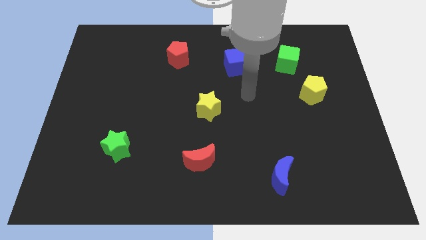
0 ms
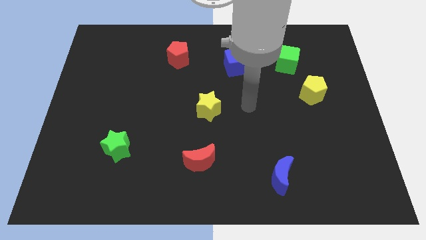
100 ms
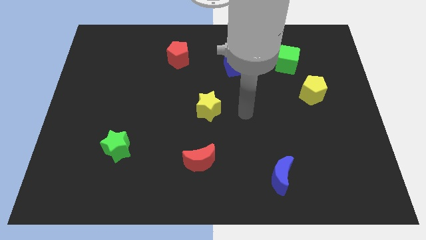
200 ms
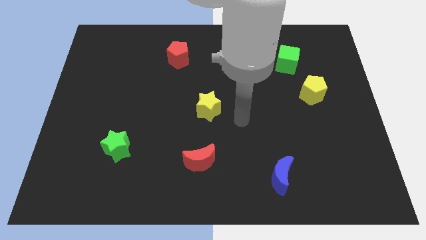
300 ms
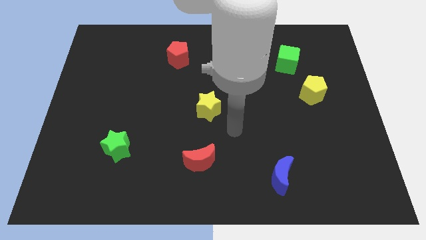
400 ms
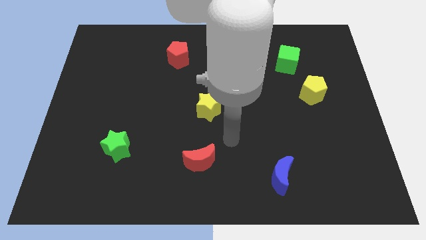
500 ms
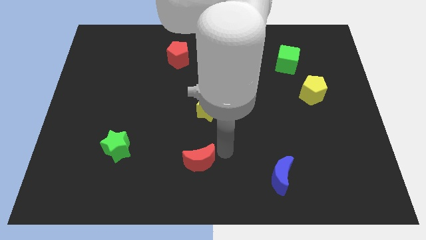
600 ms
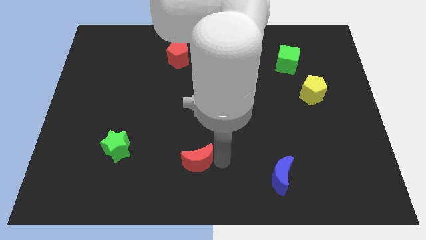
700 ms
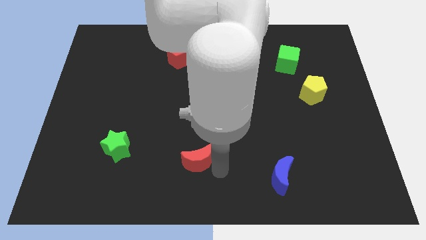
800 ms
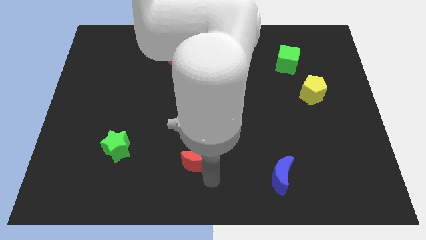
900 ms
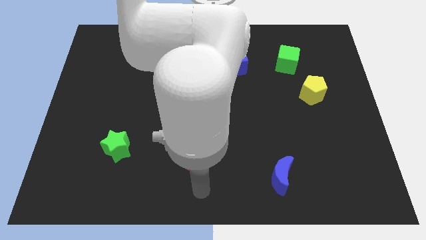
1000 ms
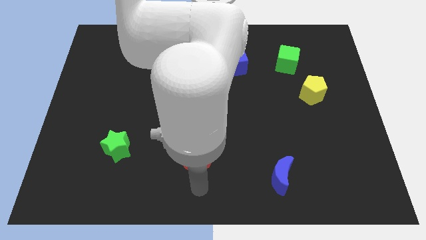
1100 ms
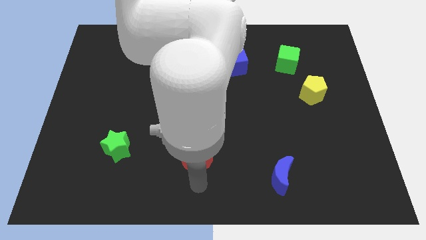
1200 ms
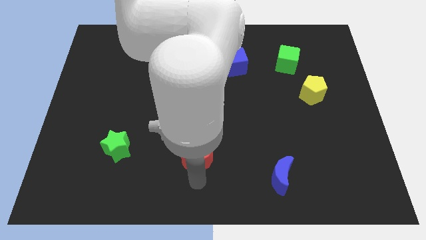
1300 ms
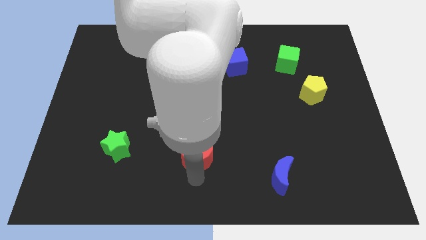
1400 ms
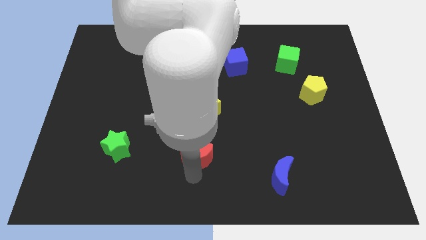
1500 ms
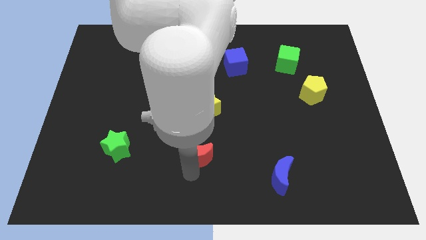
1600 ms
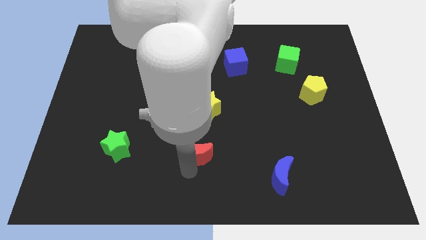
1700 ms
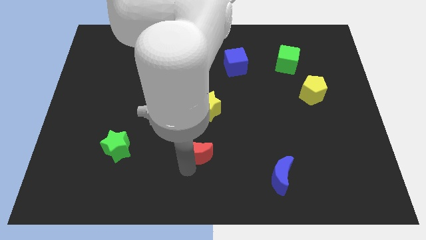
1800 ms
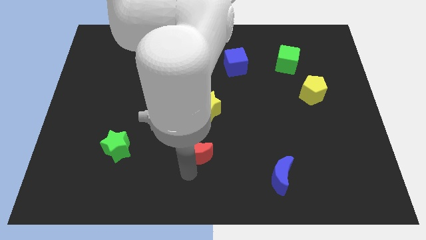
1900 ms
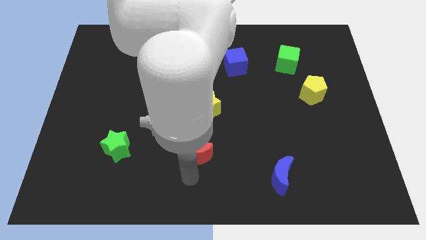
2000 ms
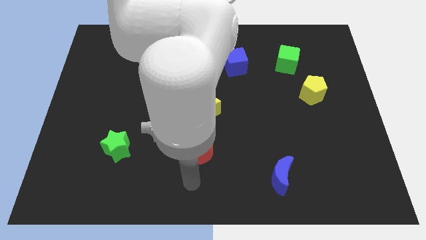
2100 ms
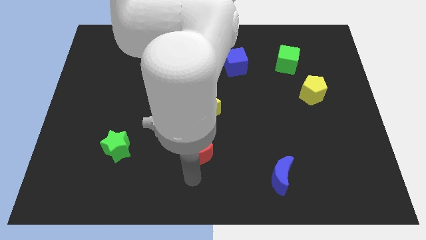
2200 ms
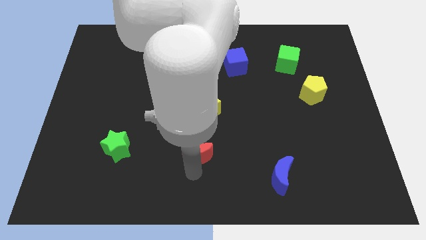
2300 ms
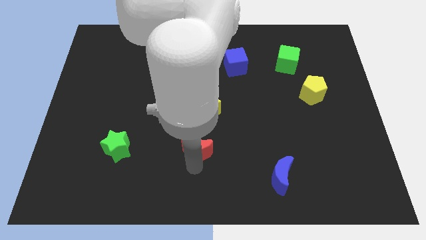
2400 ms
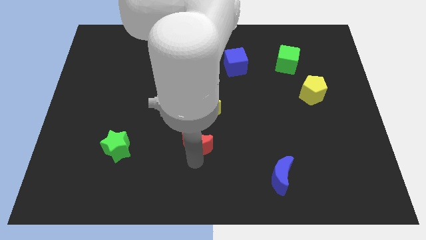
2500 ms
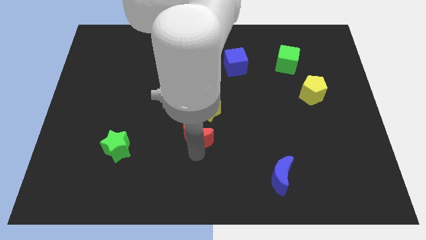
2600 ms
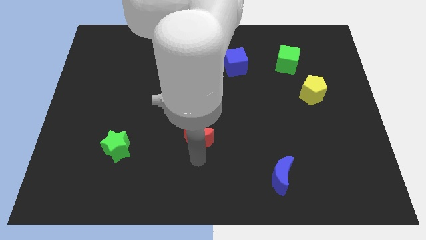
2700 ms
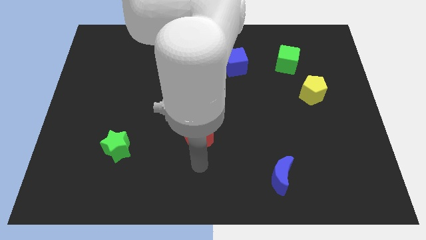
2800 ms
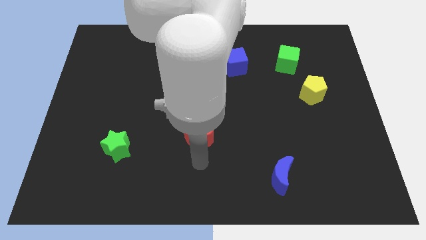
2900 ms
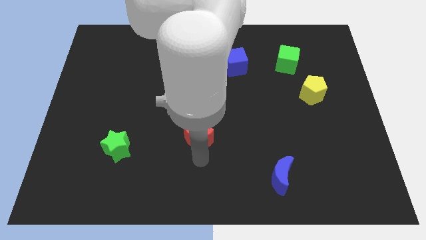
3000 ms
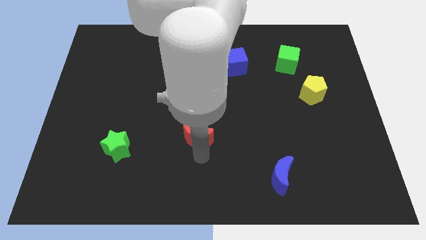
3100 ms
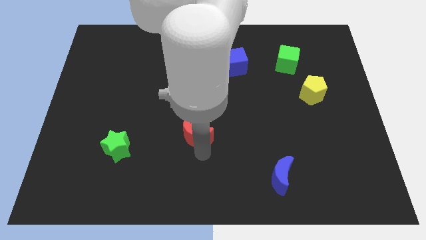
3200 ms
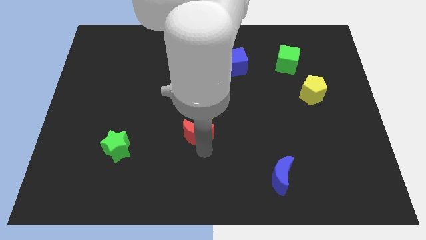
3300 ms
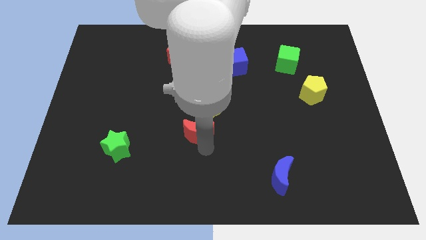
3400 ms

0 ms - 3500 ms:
slightly slide the red moon upwards

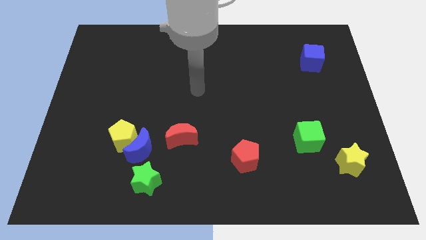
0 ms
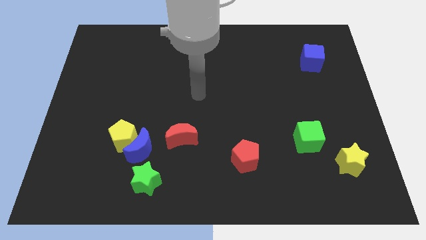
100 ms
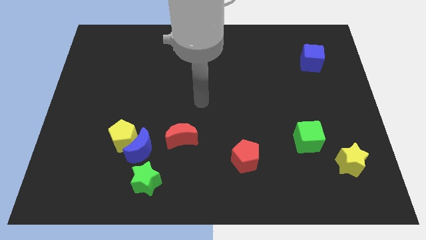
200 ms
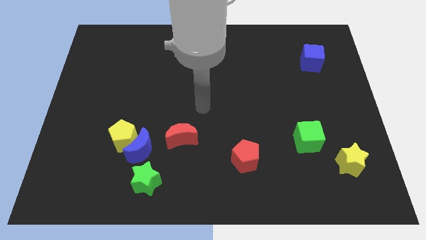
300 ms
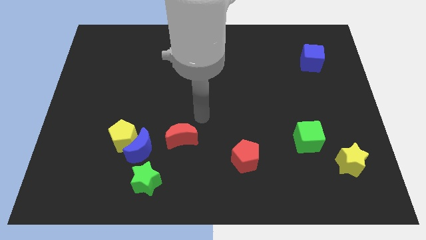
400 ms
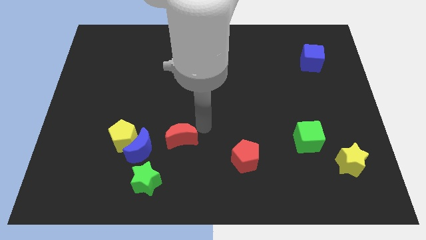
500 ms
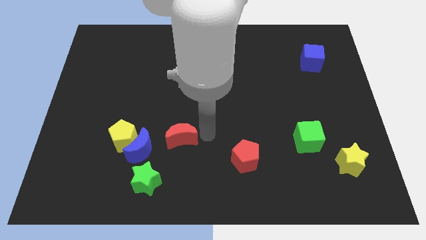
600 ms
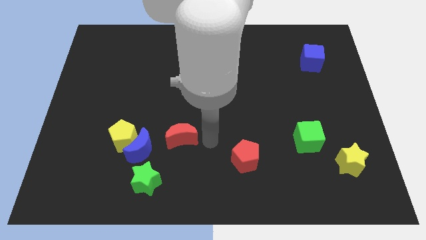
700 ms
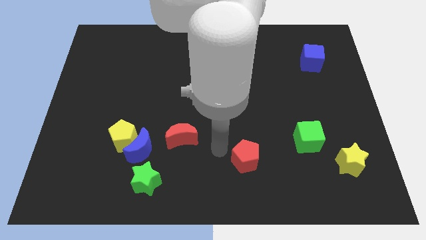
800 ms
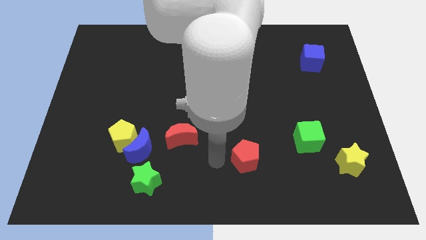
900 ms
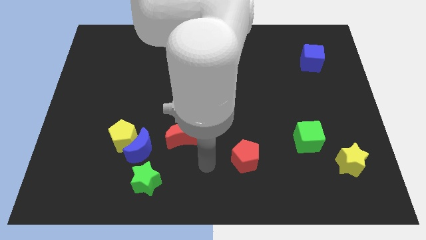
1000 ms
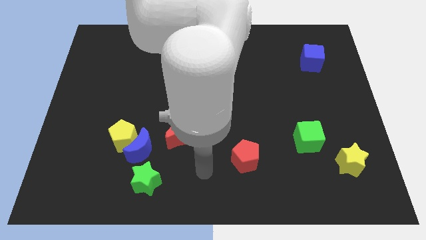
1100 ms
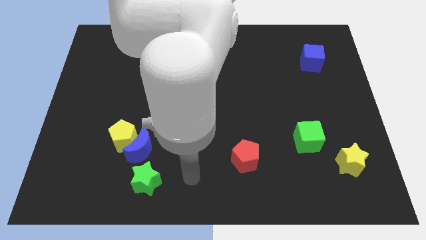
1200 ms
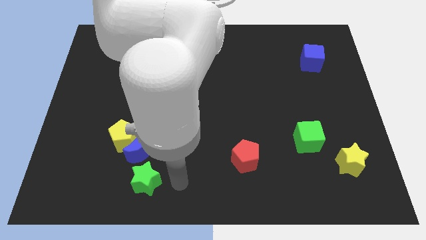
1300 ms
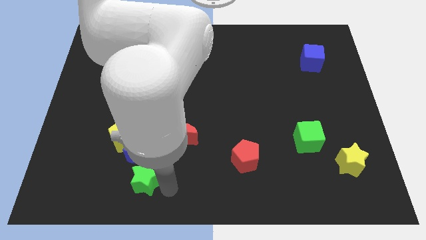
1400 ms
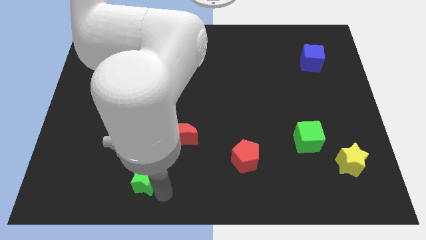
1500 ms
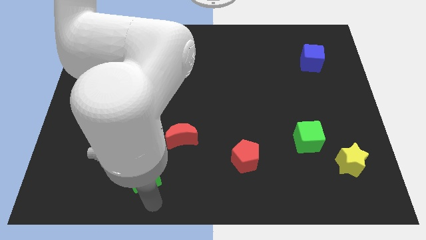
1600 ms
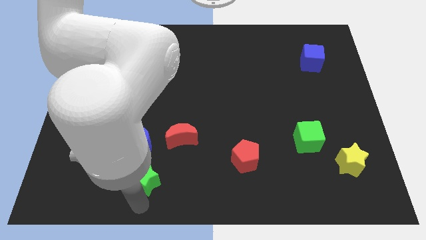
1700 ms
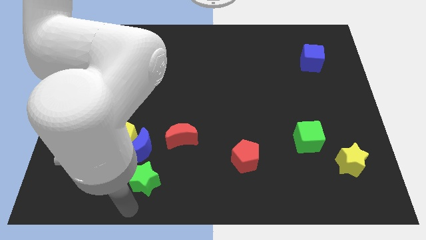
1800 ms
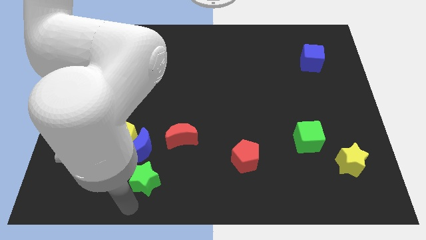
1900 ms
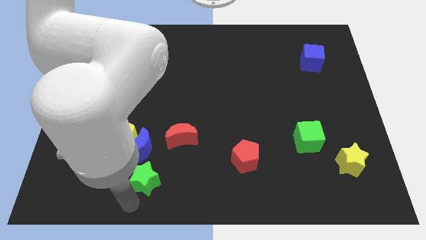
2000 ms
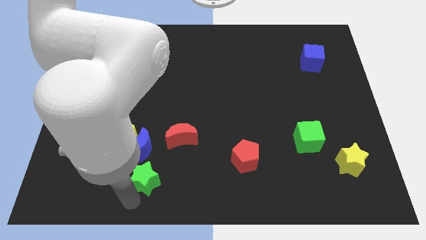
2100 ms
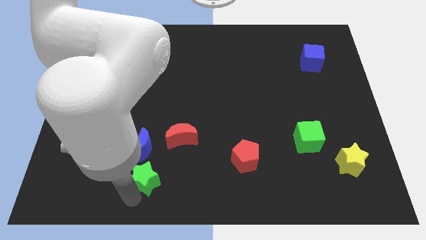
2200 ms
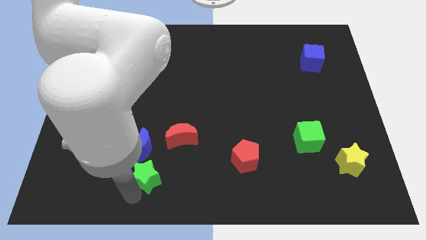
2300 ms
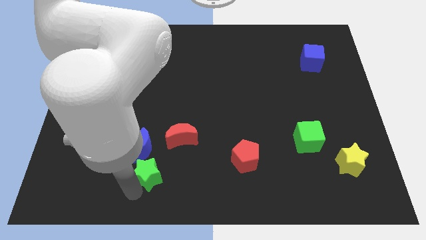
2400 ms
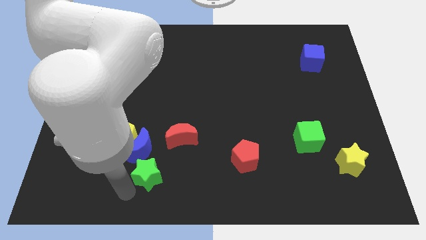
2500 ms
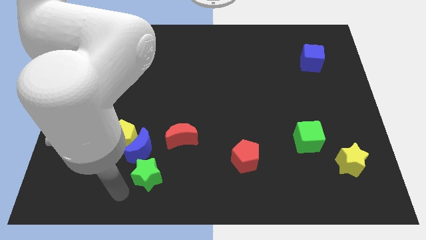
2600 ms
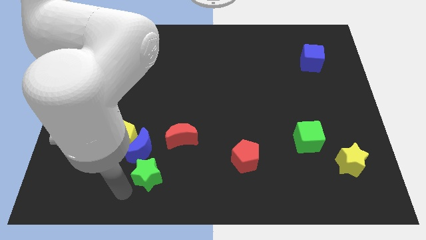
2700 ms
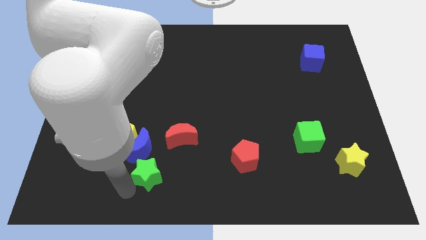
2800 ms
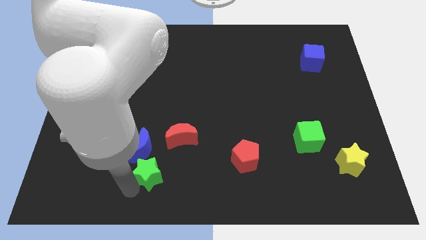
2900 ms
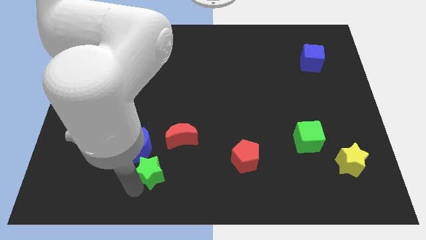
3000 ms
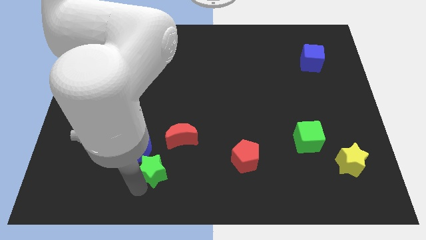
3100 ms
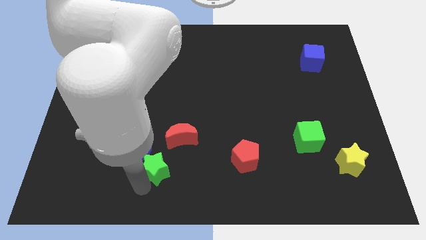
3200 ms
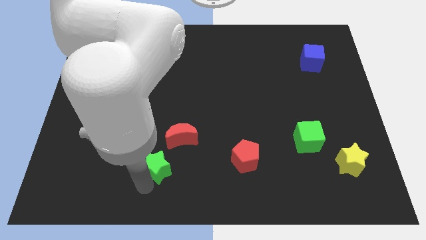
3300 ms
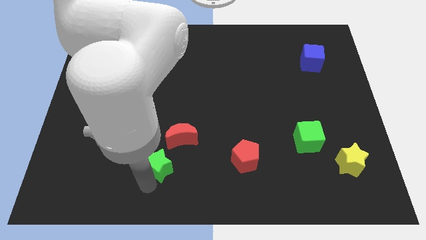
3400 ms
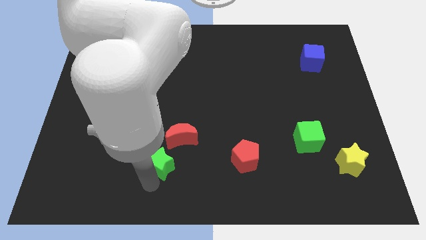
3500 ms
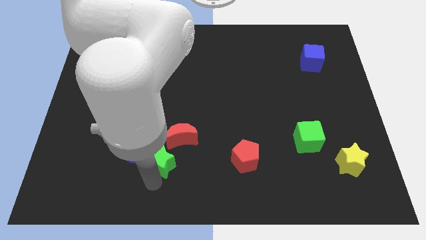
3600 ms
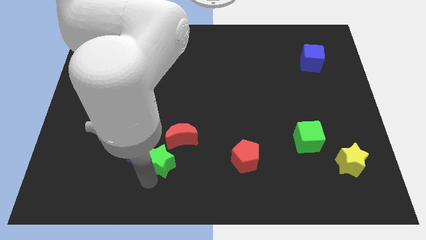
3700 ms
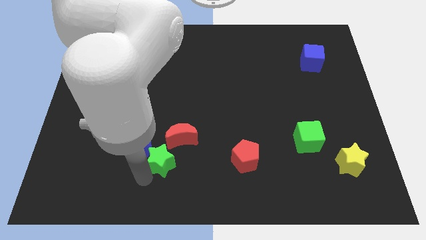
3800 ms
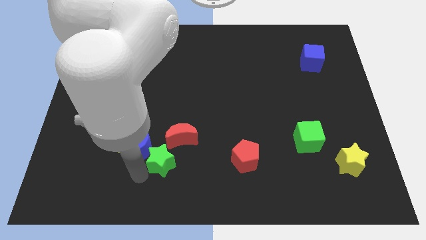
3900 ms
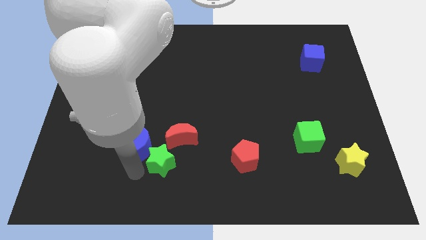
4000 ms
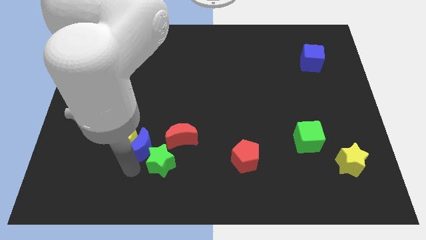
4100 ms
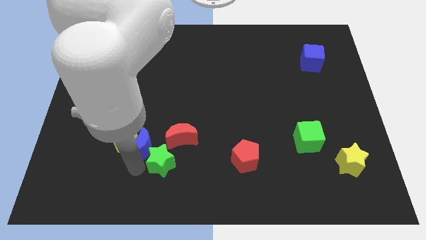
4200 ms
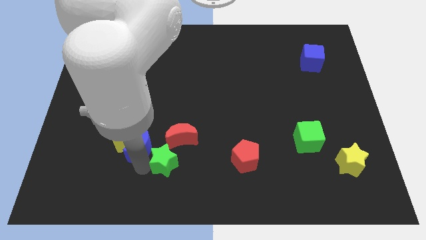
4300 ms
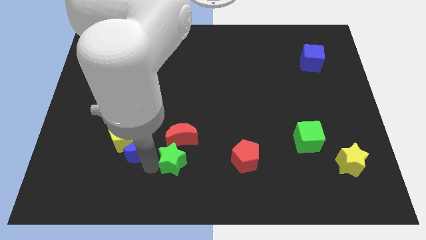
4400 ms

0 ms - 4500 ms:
move the green star upwards and to the right diagonally somewhat
